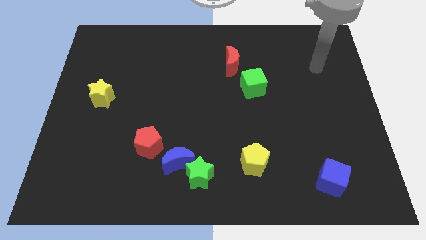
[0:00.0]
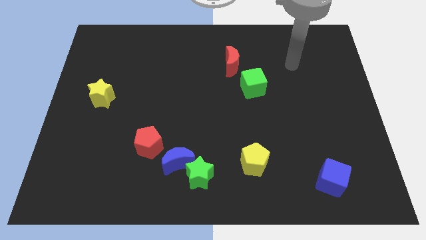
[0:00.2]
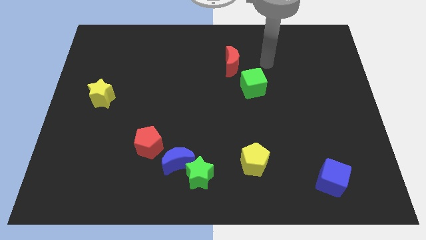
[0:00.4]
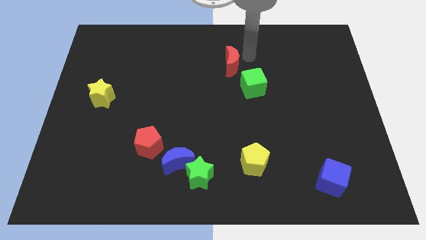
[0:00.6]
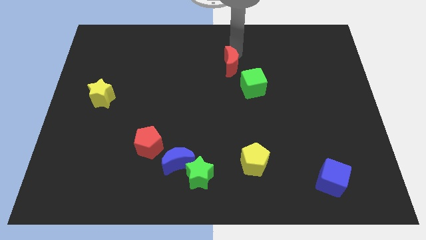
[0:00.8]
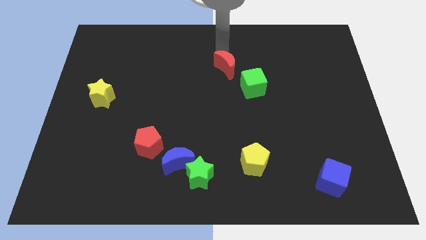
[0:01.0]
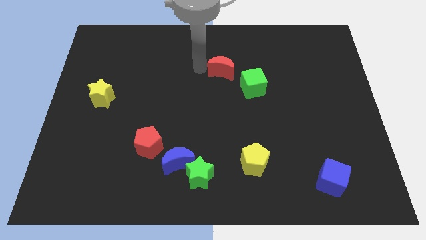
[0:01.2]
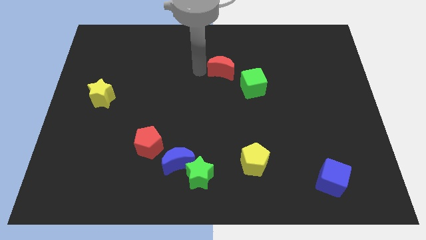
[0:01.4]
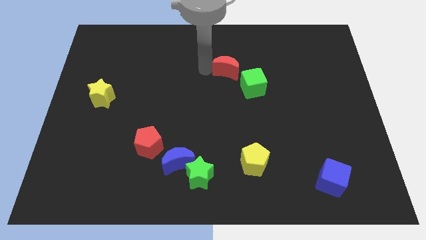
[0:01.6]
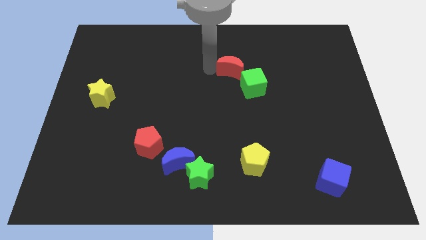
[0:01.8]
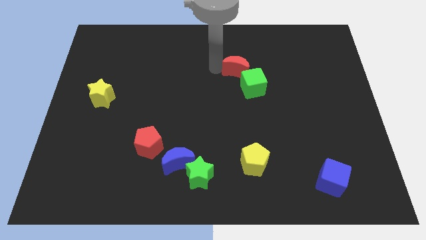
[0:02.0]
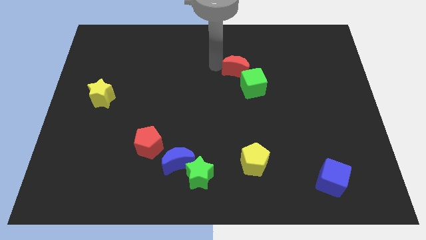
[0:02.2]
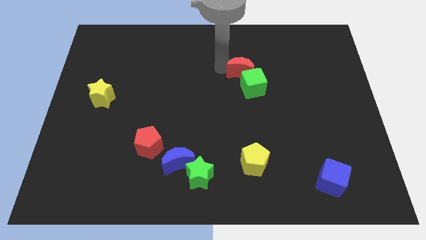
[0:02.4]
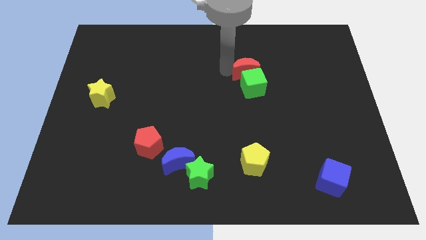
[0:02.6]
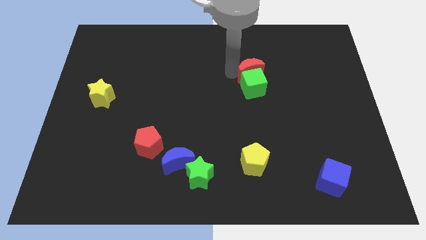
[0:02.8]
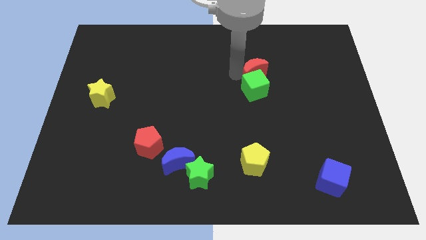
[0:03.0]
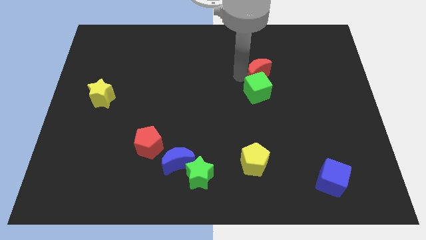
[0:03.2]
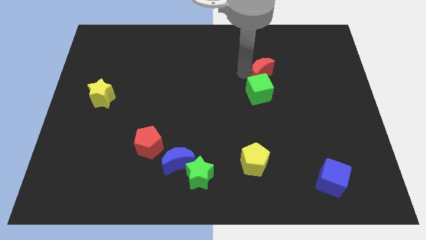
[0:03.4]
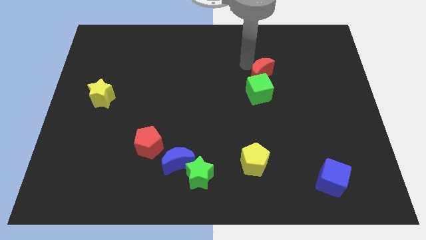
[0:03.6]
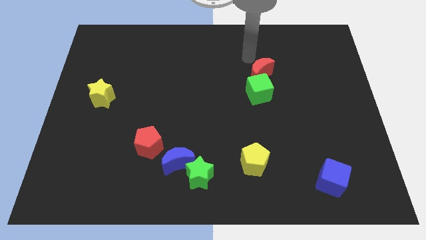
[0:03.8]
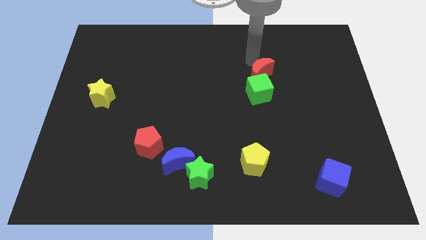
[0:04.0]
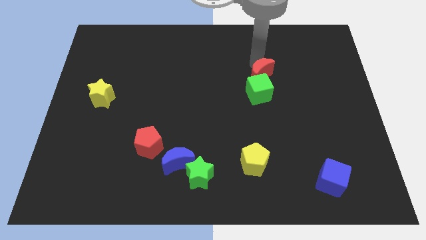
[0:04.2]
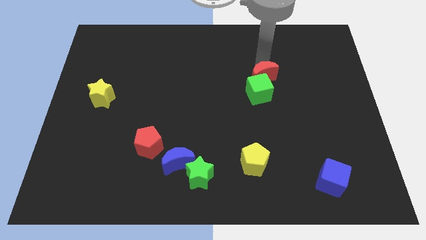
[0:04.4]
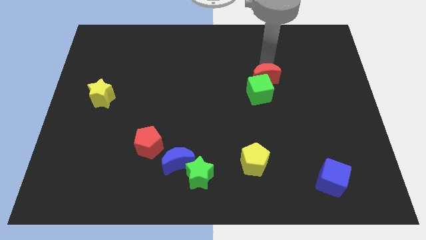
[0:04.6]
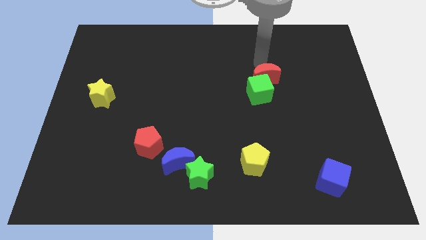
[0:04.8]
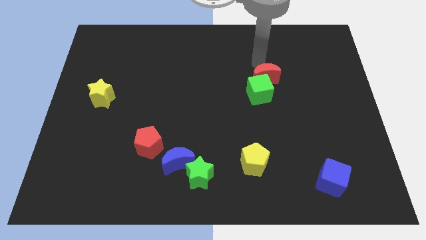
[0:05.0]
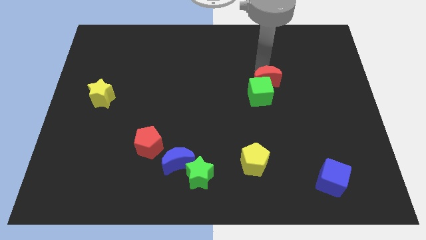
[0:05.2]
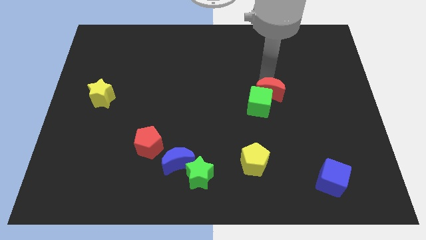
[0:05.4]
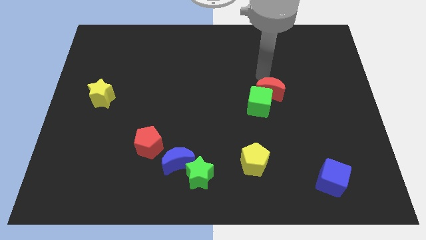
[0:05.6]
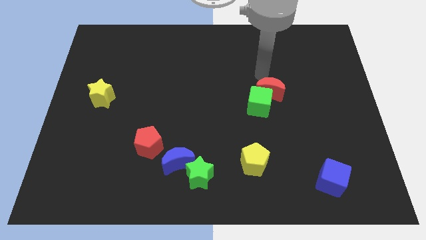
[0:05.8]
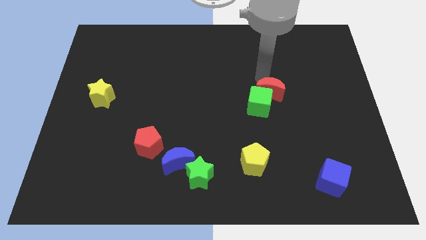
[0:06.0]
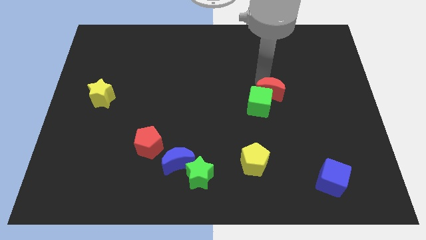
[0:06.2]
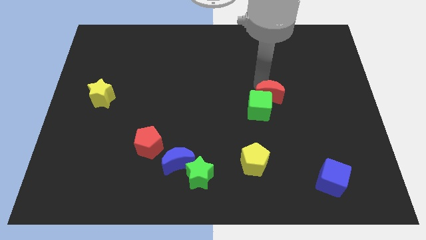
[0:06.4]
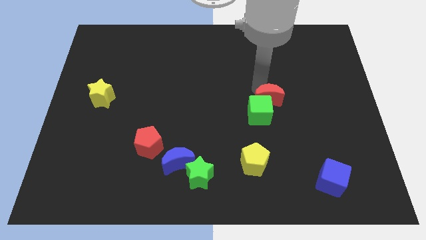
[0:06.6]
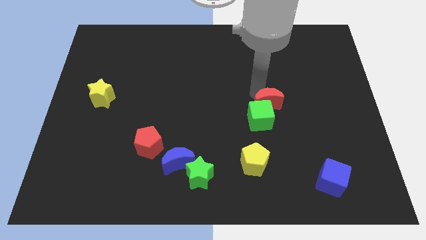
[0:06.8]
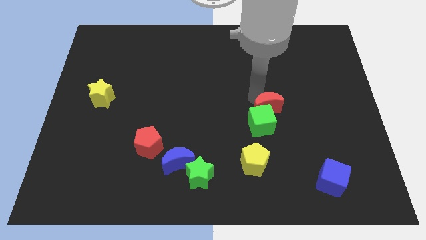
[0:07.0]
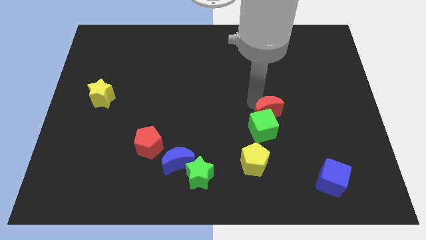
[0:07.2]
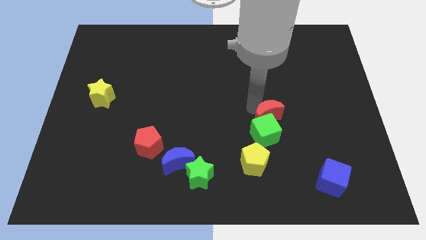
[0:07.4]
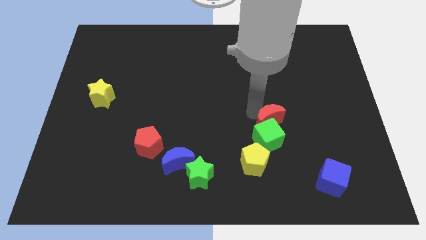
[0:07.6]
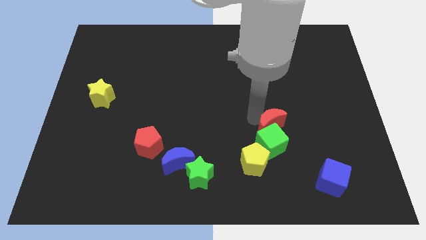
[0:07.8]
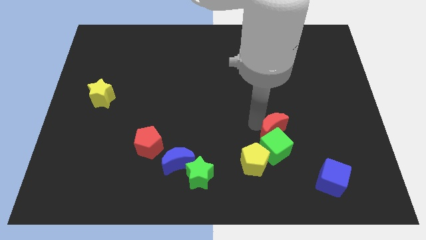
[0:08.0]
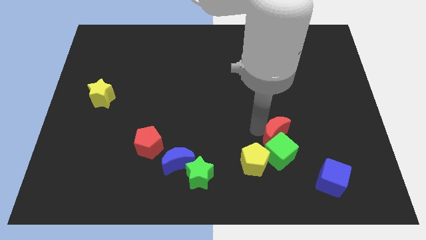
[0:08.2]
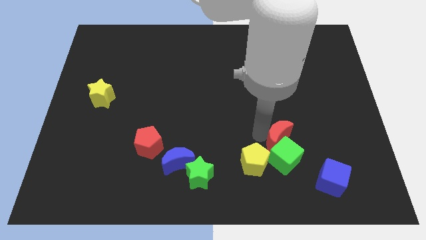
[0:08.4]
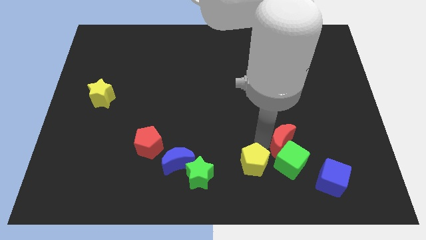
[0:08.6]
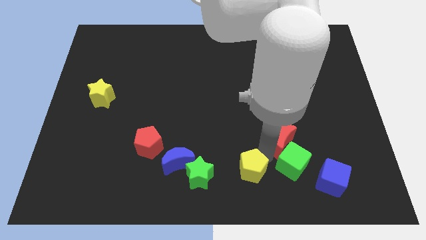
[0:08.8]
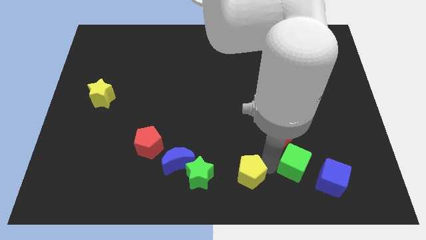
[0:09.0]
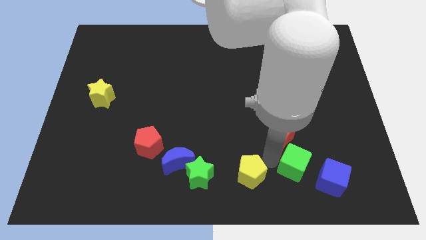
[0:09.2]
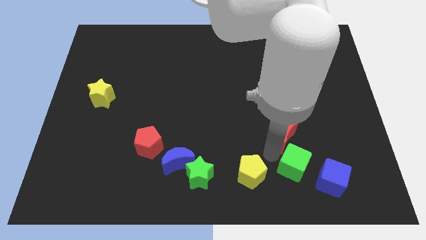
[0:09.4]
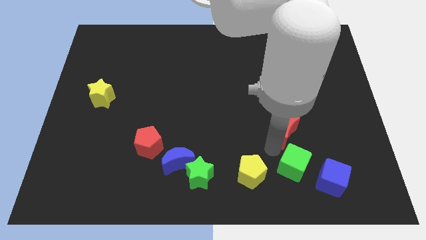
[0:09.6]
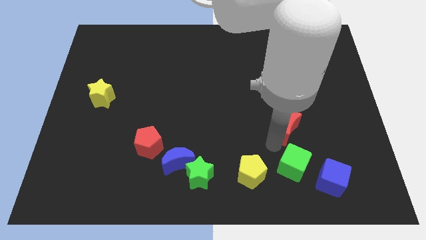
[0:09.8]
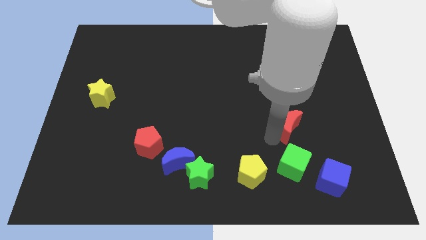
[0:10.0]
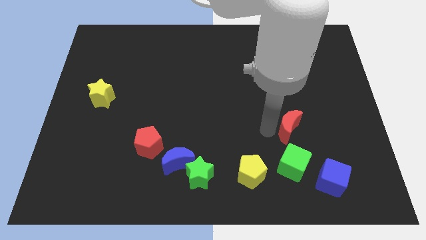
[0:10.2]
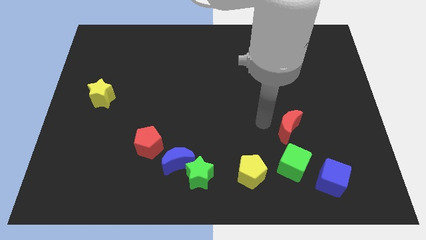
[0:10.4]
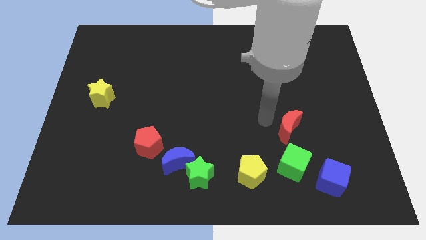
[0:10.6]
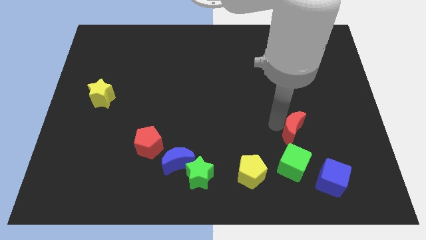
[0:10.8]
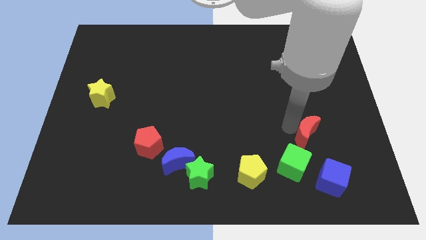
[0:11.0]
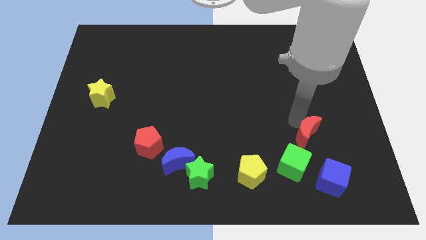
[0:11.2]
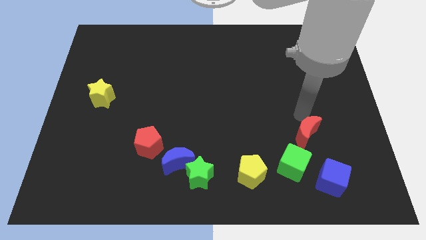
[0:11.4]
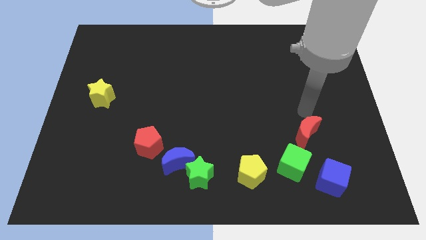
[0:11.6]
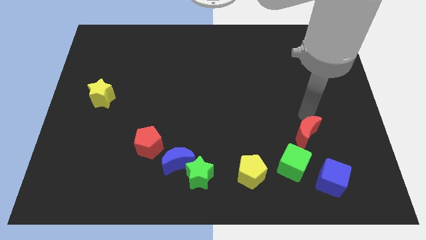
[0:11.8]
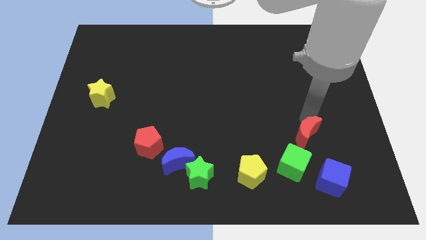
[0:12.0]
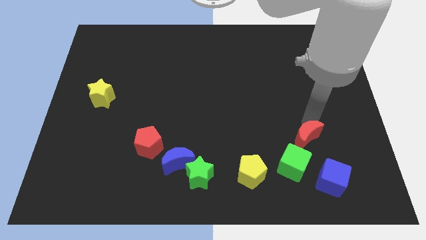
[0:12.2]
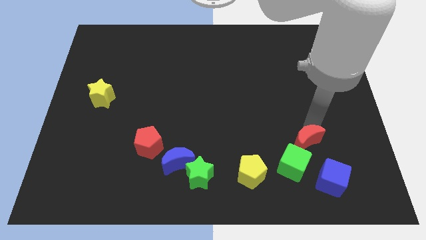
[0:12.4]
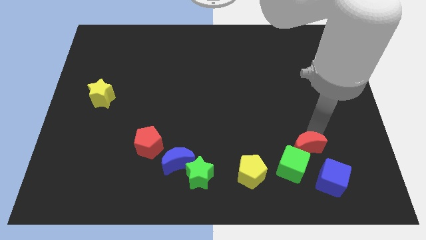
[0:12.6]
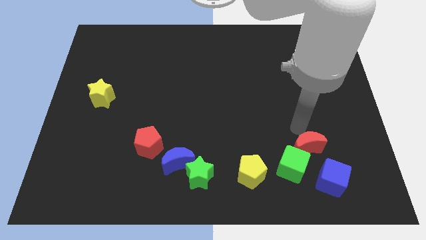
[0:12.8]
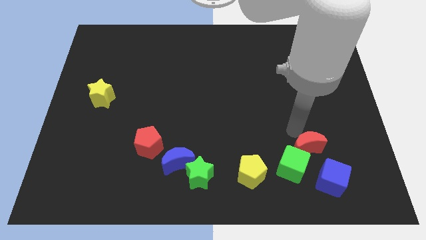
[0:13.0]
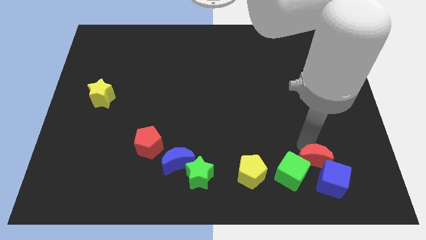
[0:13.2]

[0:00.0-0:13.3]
push the red moon towards the blue cube

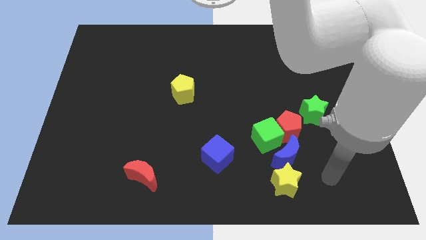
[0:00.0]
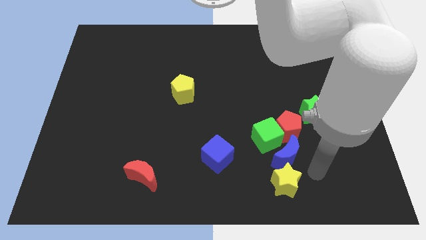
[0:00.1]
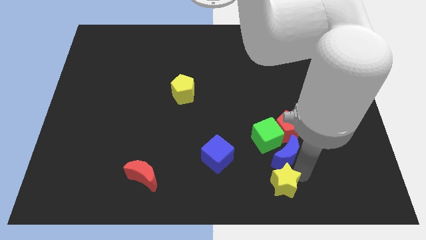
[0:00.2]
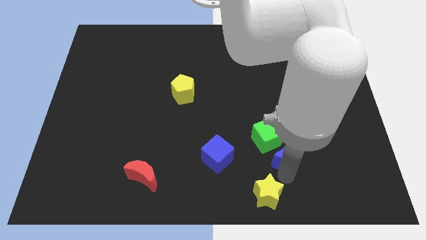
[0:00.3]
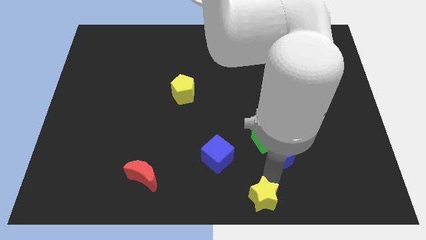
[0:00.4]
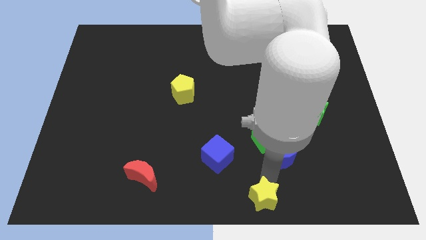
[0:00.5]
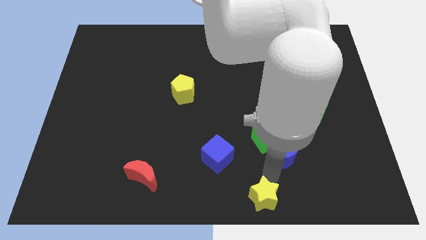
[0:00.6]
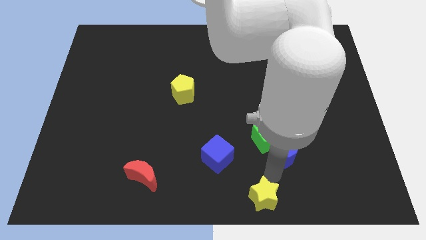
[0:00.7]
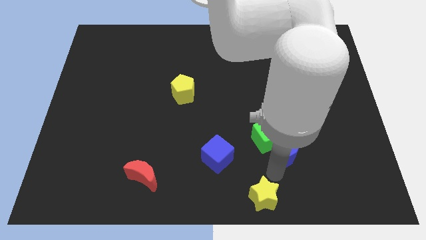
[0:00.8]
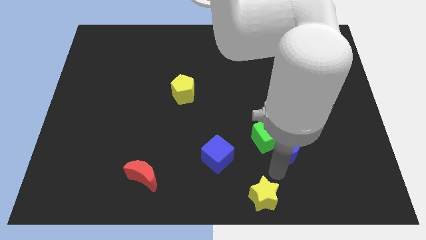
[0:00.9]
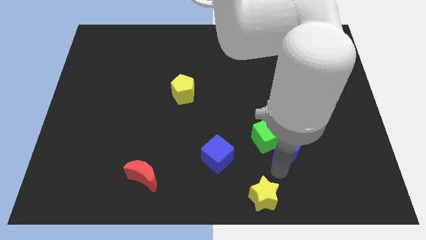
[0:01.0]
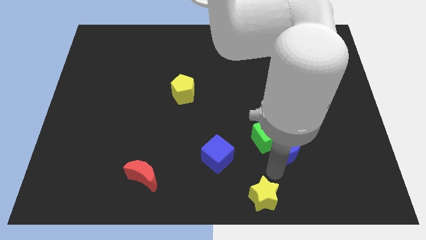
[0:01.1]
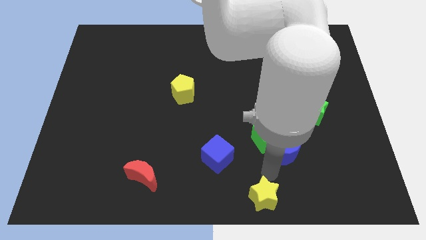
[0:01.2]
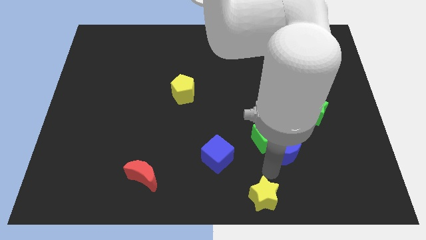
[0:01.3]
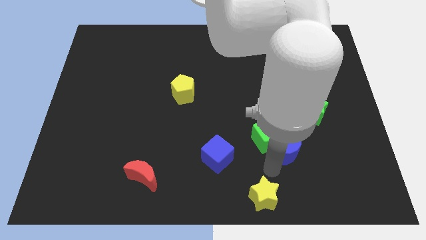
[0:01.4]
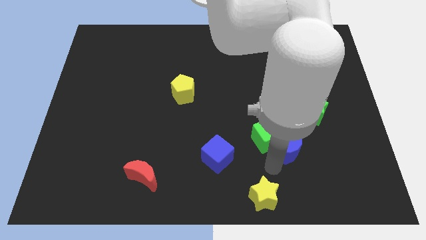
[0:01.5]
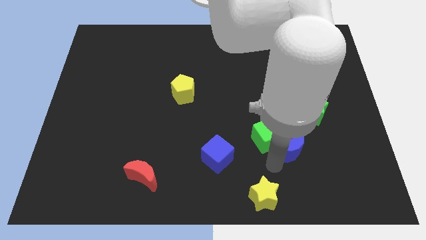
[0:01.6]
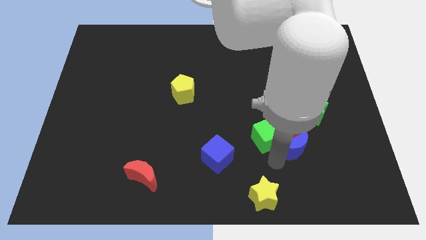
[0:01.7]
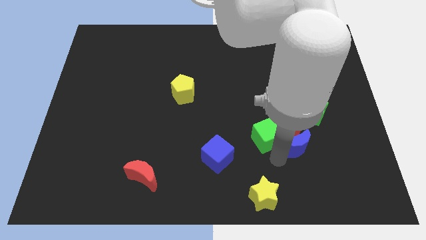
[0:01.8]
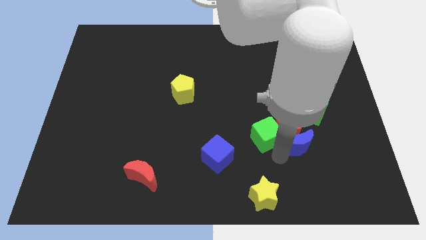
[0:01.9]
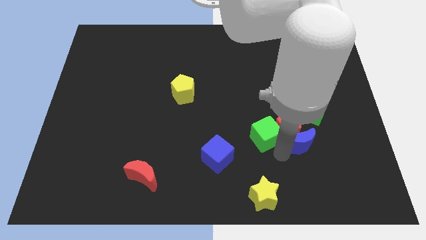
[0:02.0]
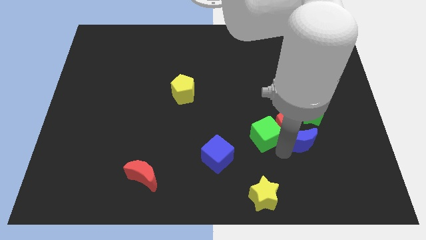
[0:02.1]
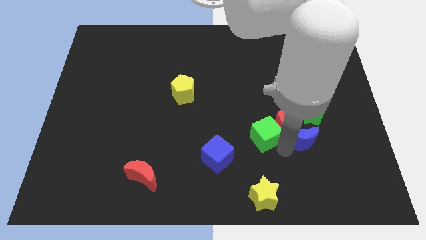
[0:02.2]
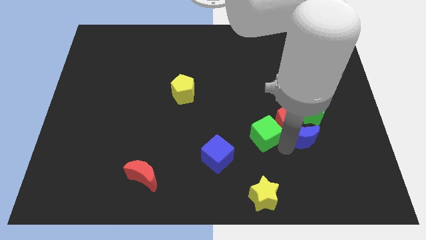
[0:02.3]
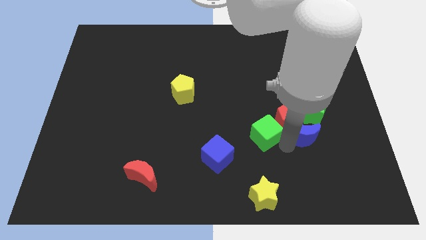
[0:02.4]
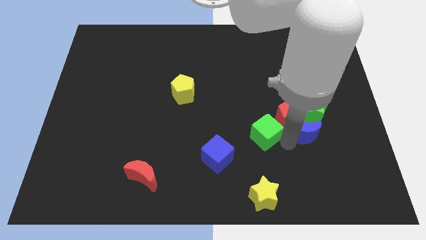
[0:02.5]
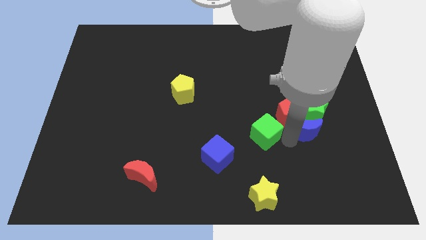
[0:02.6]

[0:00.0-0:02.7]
slide the blue moon close to the green star
